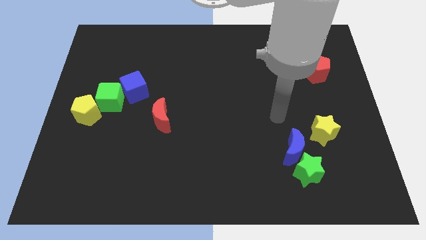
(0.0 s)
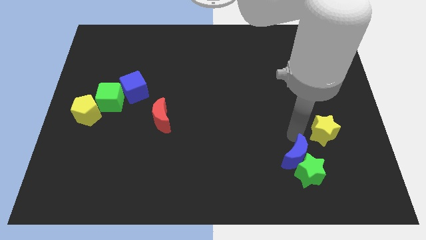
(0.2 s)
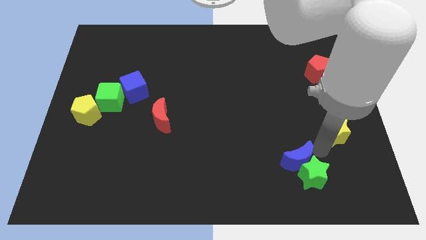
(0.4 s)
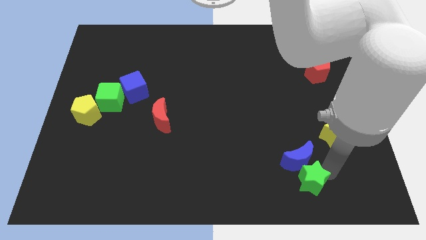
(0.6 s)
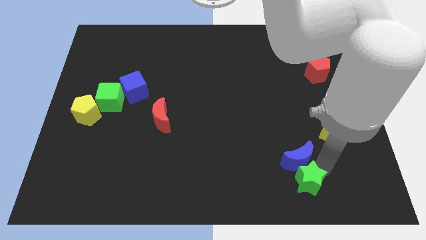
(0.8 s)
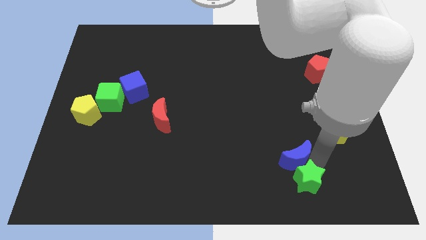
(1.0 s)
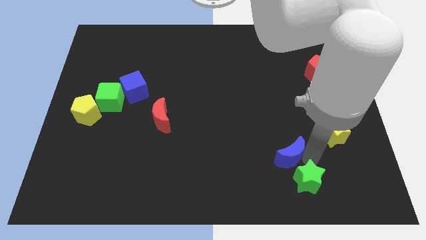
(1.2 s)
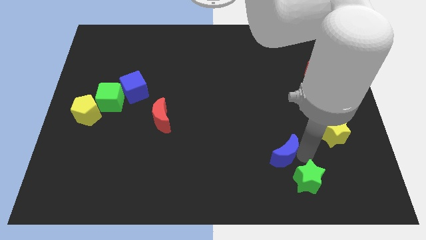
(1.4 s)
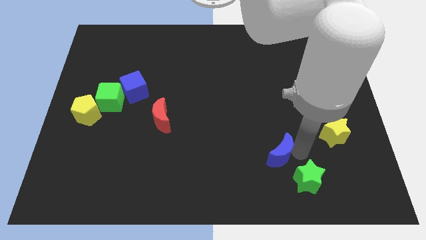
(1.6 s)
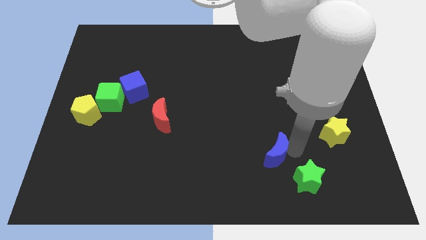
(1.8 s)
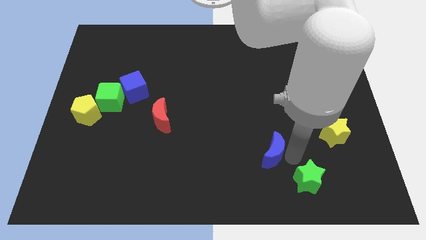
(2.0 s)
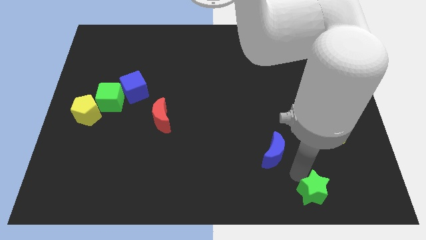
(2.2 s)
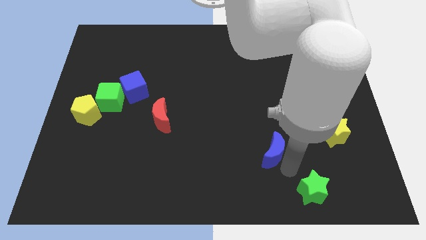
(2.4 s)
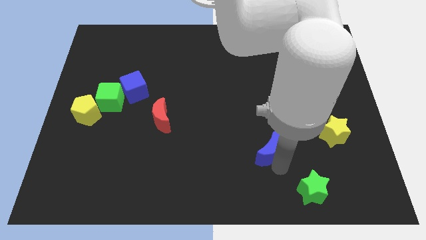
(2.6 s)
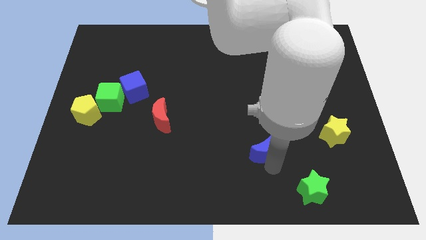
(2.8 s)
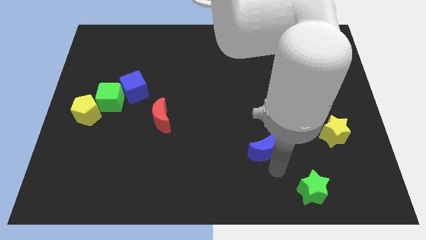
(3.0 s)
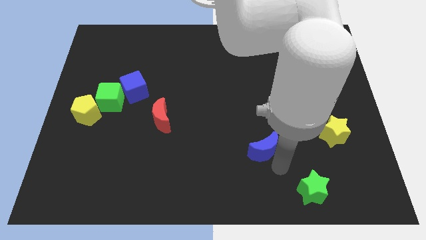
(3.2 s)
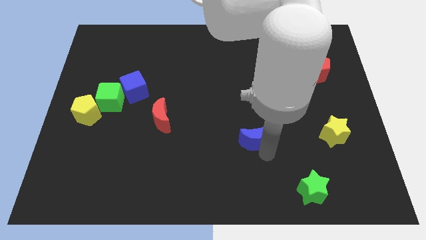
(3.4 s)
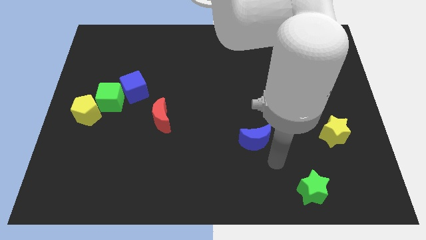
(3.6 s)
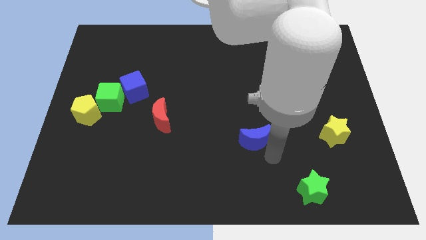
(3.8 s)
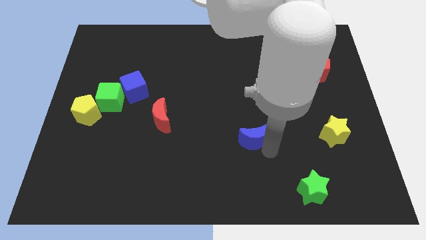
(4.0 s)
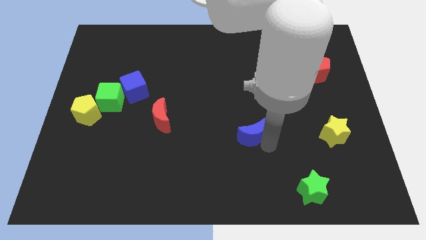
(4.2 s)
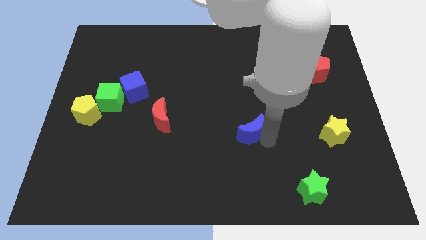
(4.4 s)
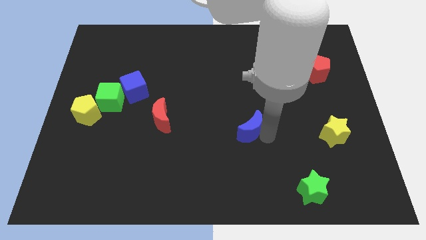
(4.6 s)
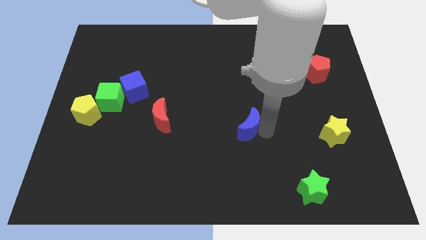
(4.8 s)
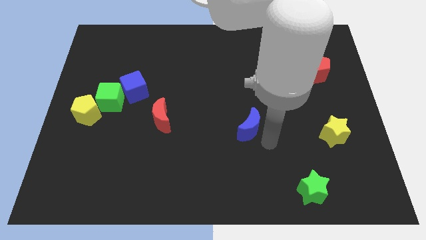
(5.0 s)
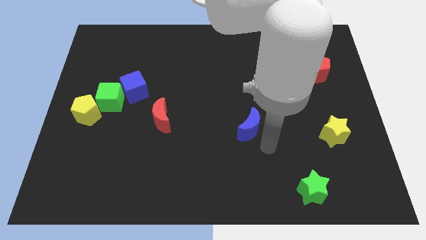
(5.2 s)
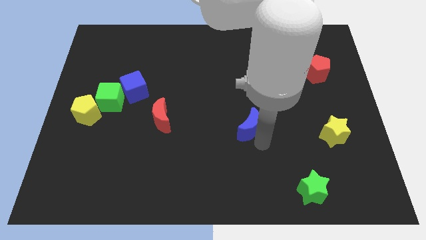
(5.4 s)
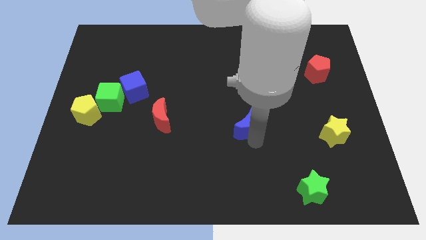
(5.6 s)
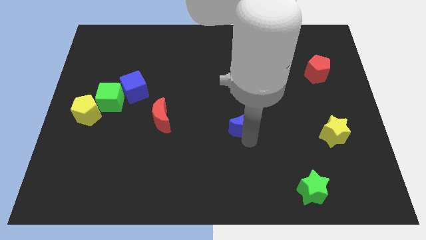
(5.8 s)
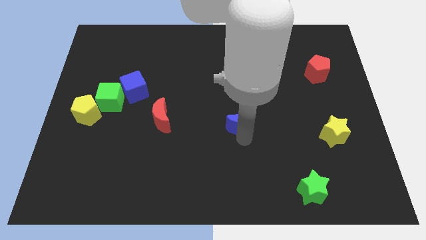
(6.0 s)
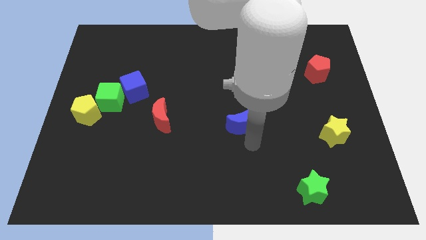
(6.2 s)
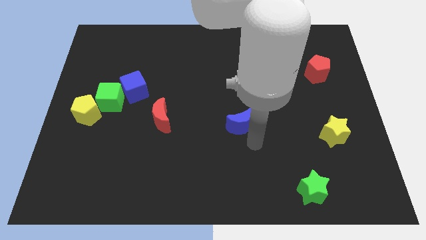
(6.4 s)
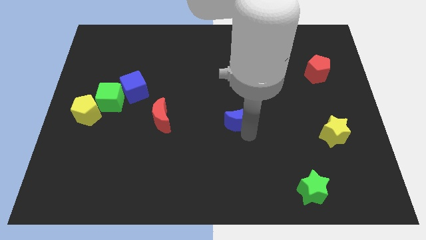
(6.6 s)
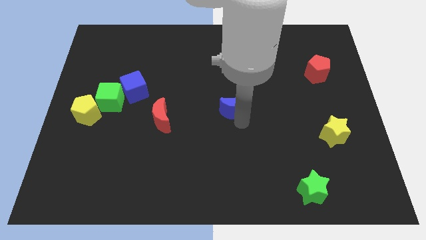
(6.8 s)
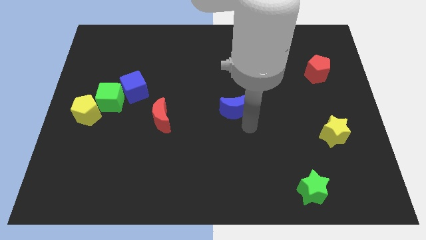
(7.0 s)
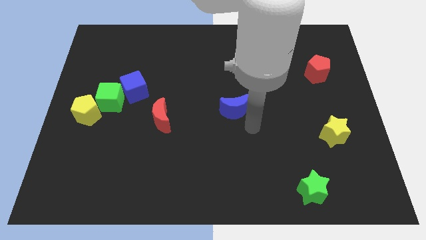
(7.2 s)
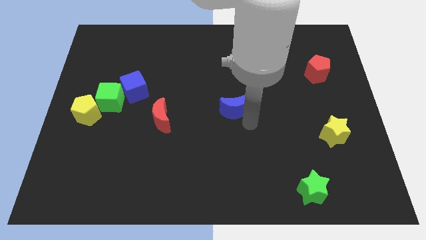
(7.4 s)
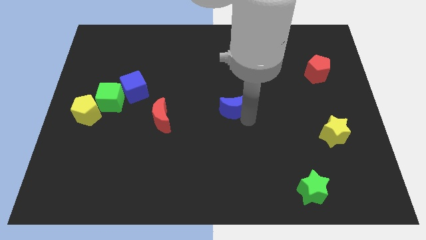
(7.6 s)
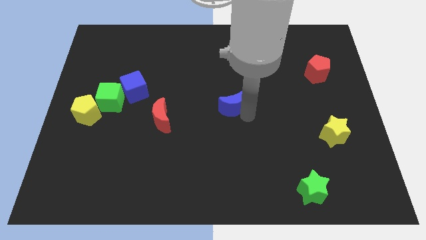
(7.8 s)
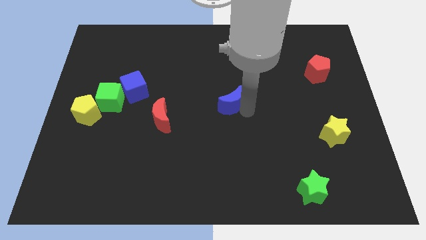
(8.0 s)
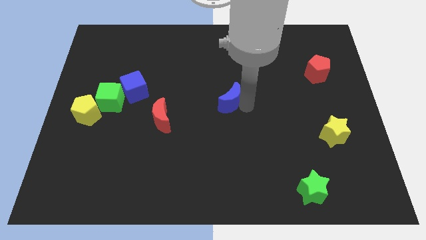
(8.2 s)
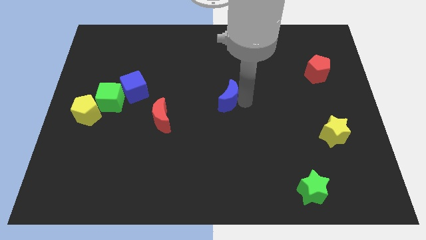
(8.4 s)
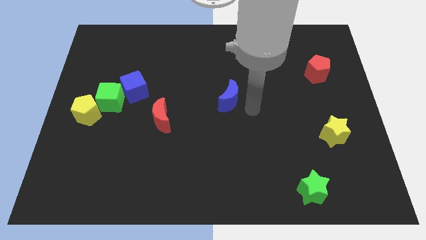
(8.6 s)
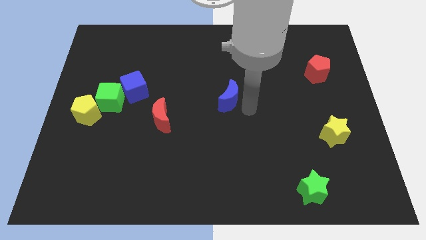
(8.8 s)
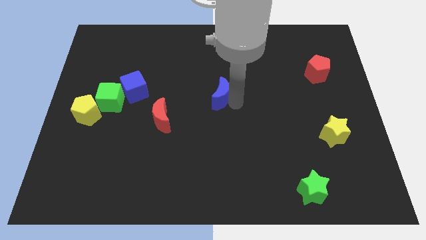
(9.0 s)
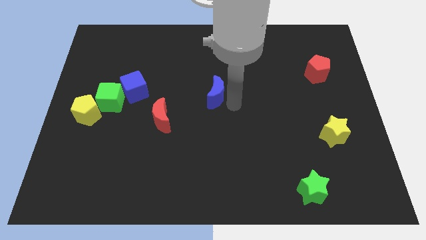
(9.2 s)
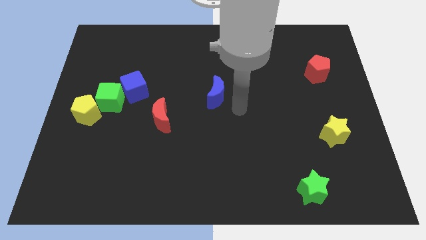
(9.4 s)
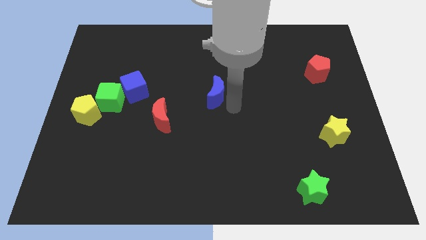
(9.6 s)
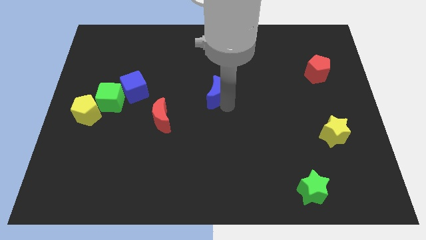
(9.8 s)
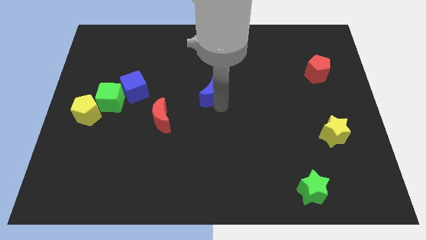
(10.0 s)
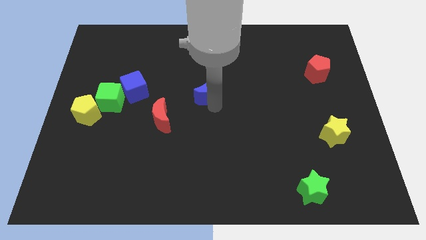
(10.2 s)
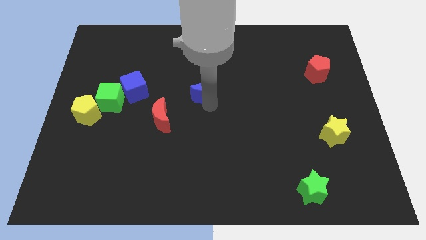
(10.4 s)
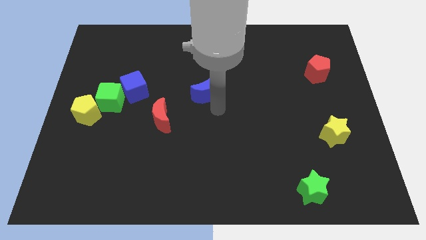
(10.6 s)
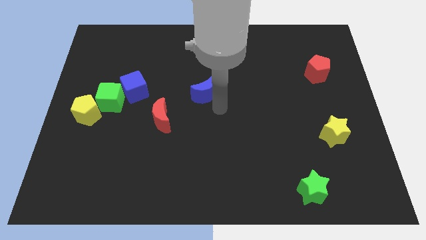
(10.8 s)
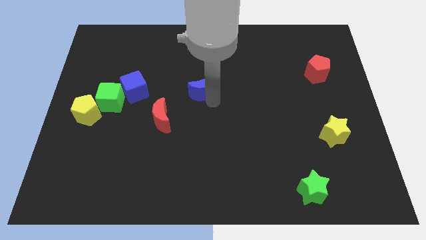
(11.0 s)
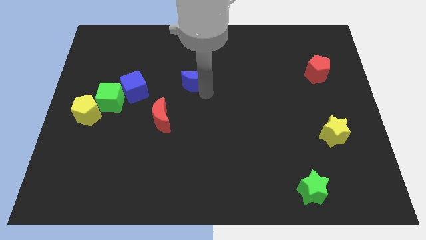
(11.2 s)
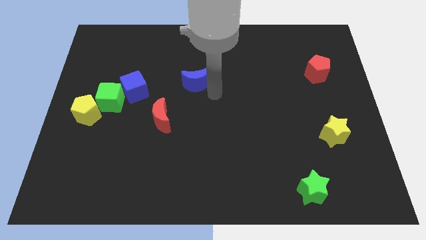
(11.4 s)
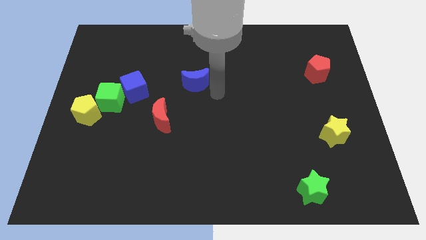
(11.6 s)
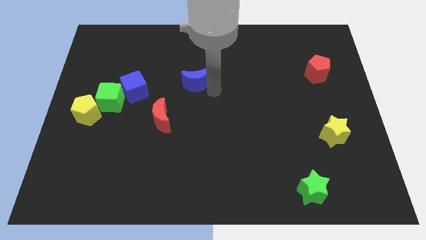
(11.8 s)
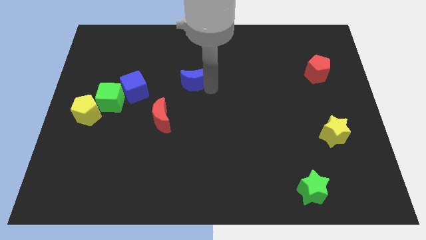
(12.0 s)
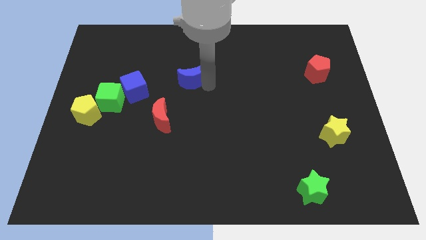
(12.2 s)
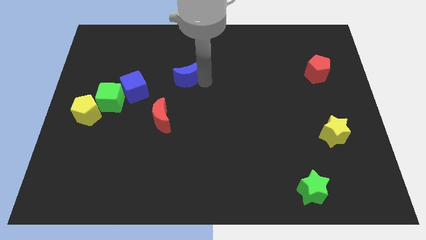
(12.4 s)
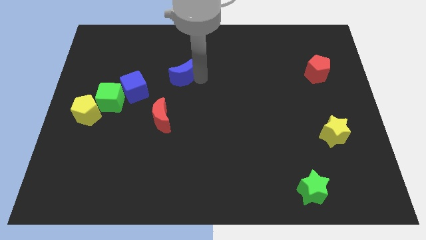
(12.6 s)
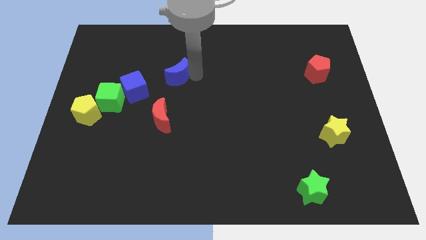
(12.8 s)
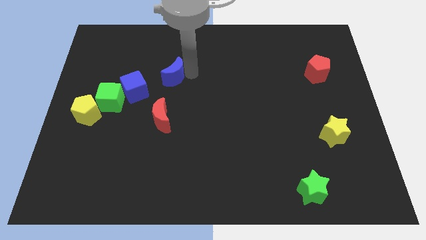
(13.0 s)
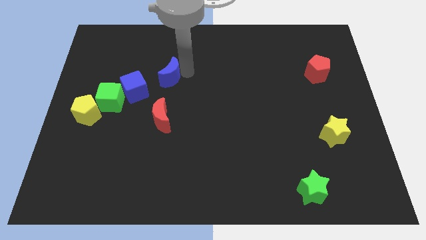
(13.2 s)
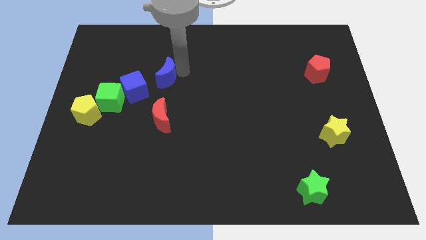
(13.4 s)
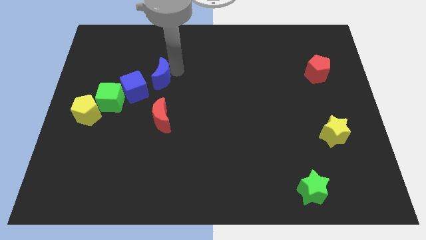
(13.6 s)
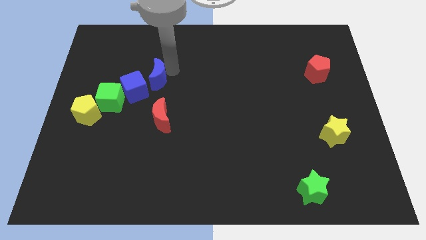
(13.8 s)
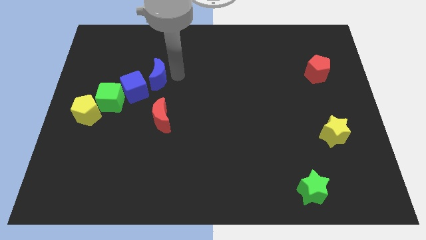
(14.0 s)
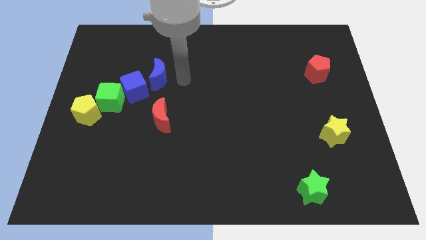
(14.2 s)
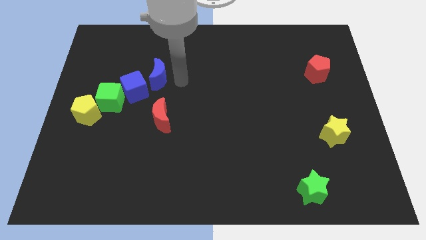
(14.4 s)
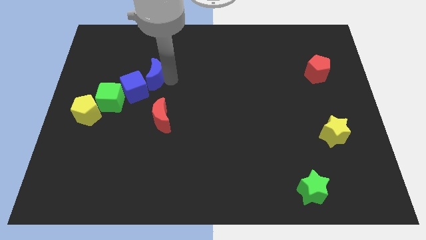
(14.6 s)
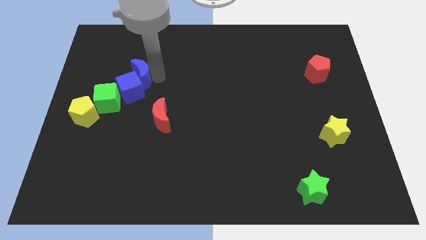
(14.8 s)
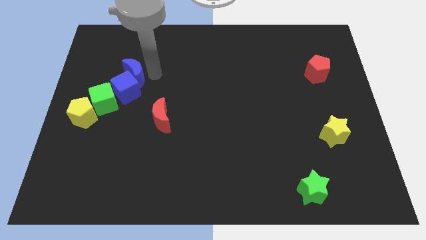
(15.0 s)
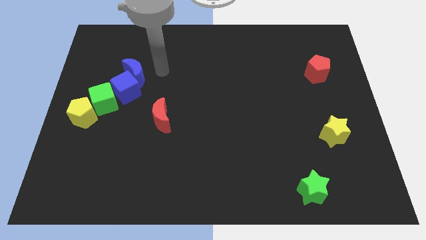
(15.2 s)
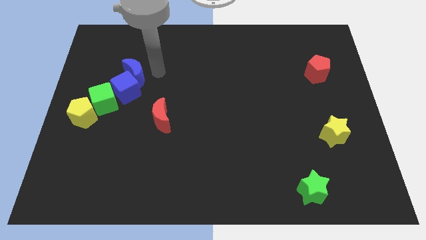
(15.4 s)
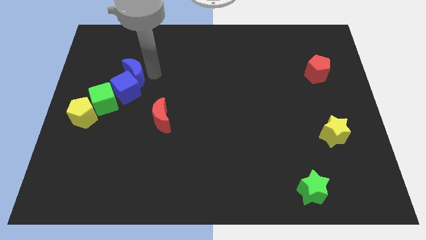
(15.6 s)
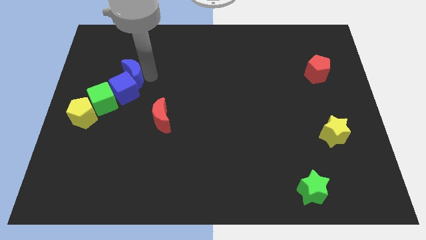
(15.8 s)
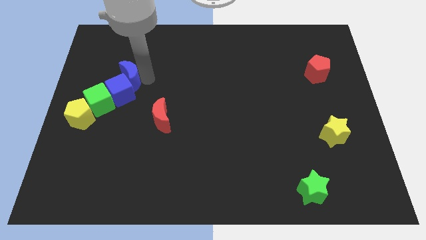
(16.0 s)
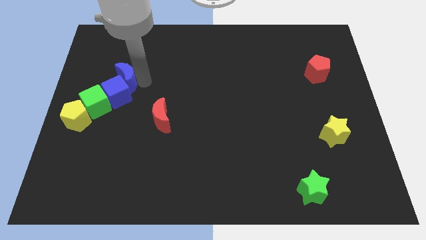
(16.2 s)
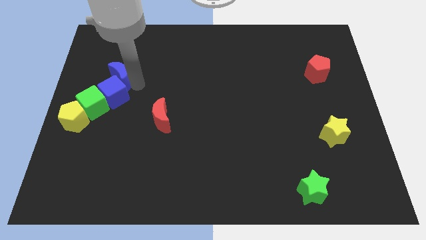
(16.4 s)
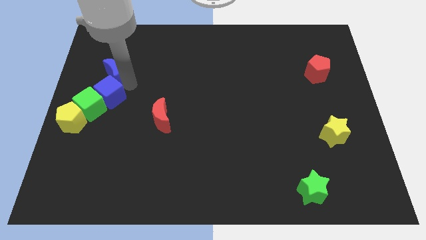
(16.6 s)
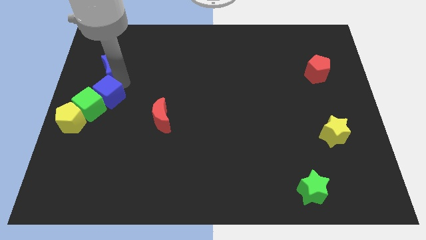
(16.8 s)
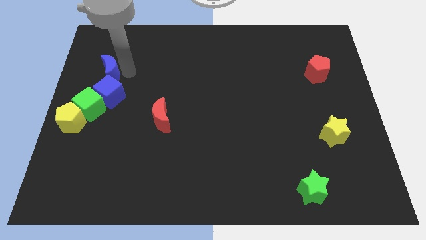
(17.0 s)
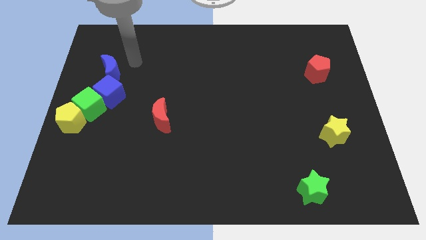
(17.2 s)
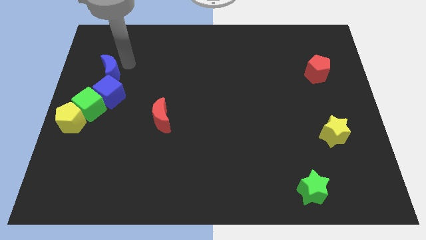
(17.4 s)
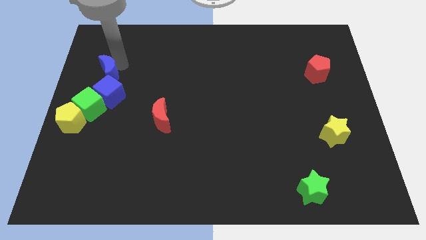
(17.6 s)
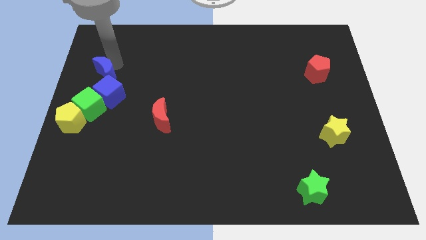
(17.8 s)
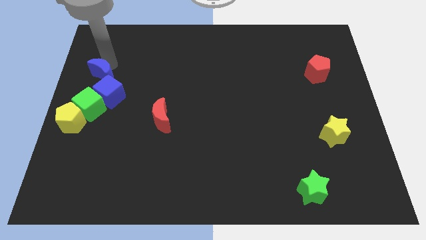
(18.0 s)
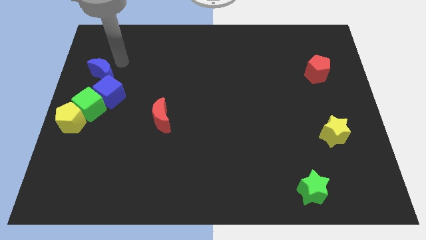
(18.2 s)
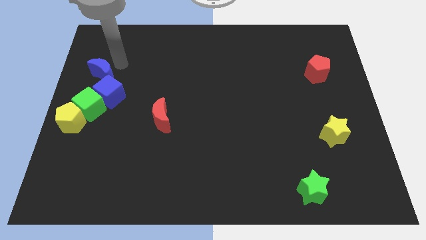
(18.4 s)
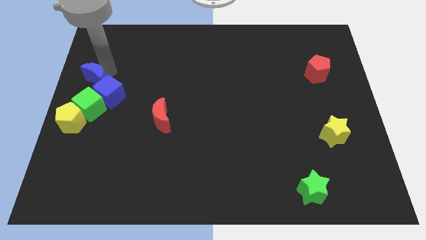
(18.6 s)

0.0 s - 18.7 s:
move the blue moon to the top side of the yellow pentagon
